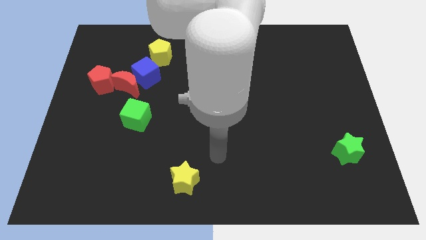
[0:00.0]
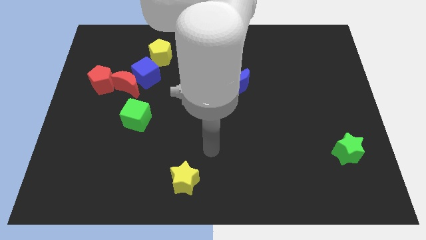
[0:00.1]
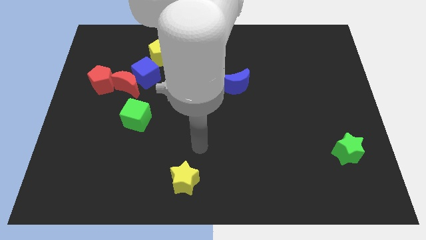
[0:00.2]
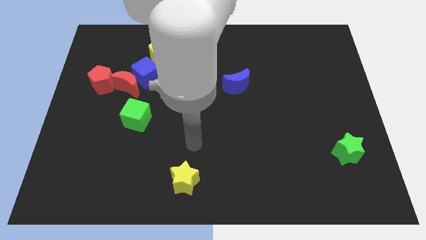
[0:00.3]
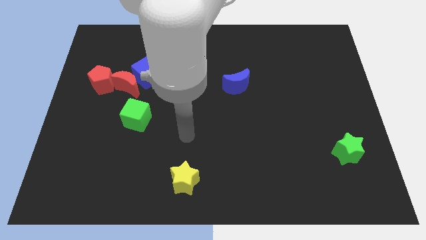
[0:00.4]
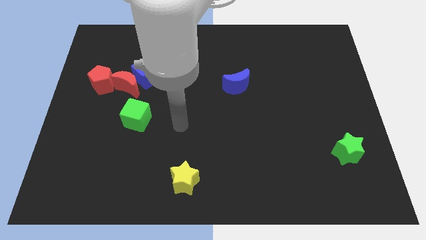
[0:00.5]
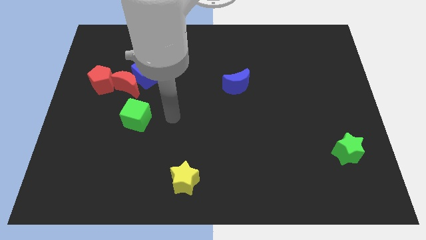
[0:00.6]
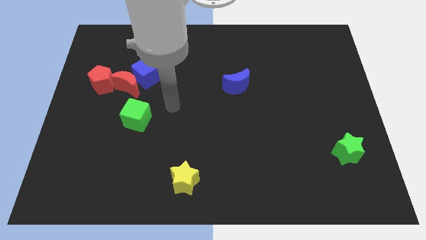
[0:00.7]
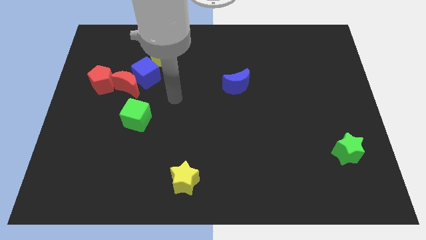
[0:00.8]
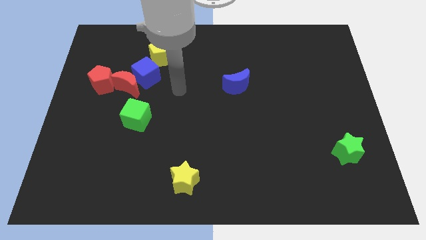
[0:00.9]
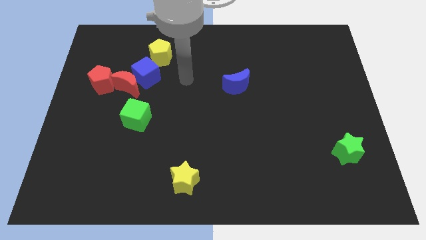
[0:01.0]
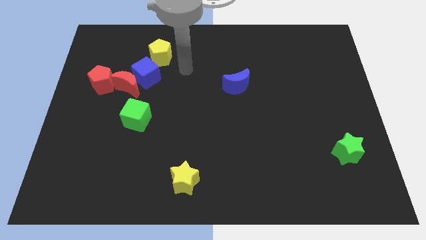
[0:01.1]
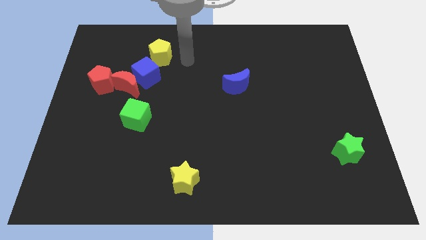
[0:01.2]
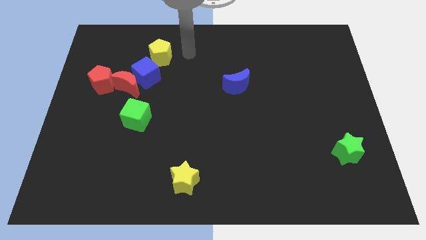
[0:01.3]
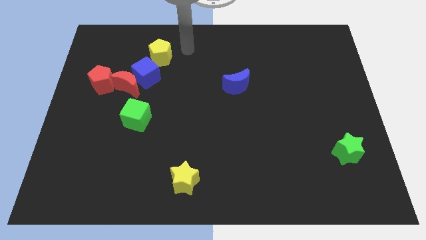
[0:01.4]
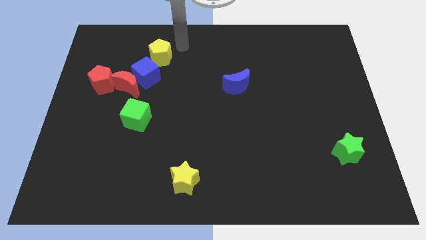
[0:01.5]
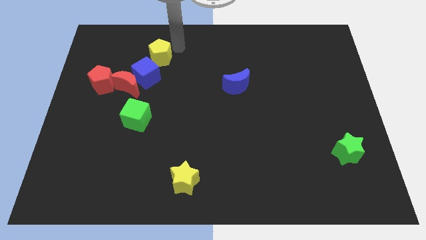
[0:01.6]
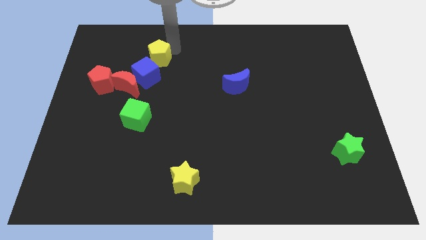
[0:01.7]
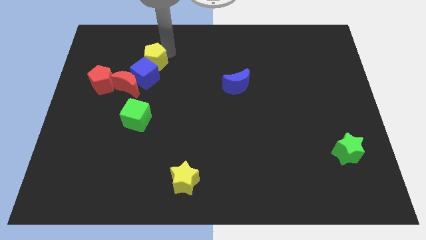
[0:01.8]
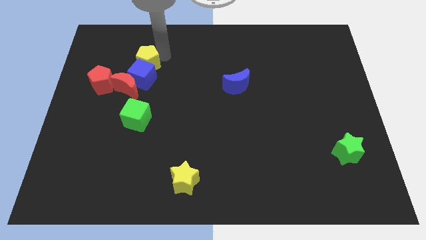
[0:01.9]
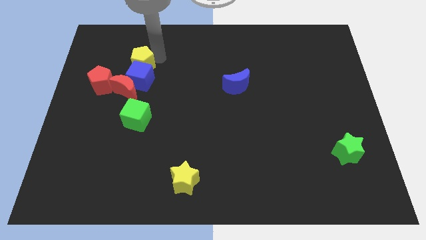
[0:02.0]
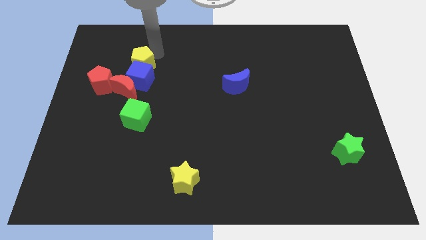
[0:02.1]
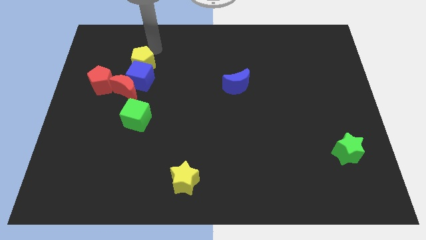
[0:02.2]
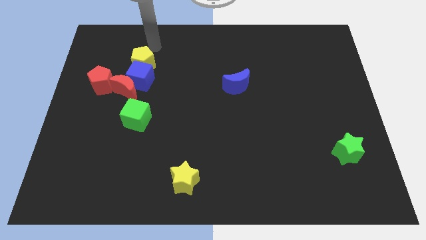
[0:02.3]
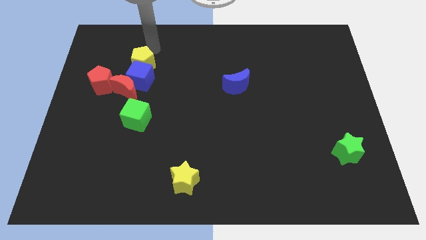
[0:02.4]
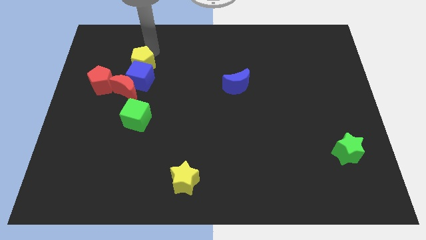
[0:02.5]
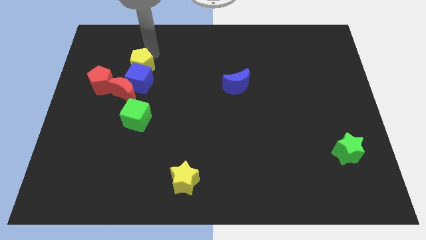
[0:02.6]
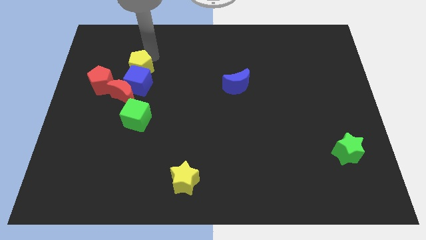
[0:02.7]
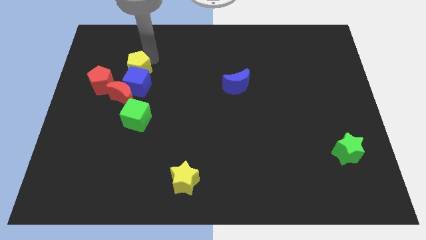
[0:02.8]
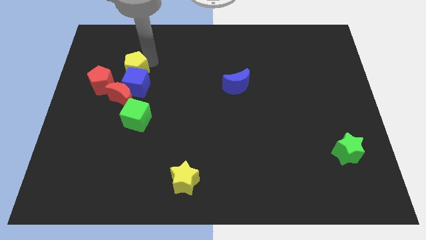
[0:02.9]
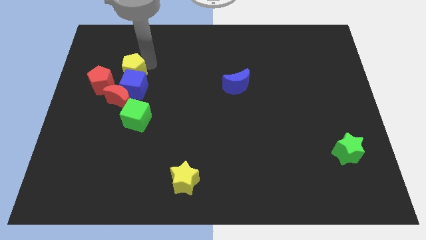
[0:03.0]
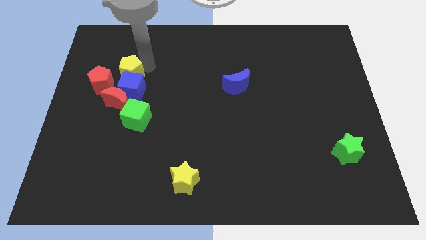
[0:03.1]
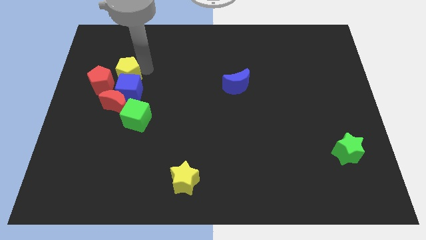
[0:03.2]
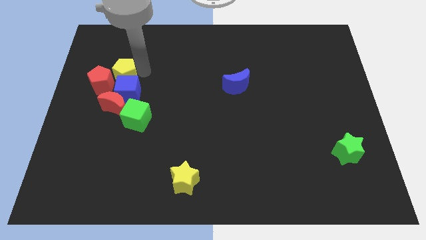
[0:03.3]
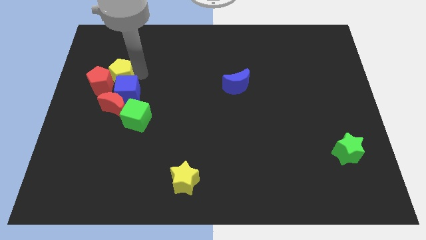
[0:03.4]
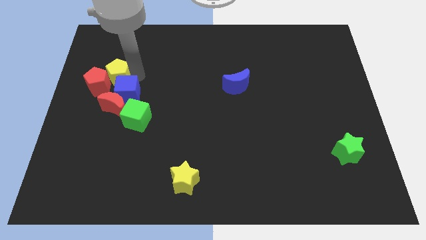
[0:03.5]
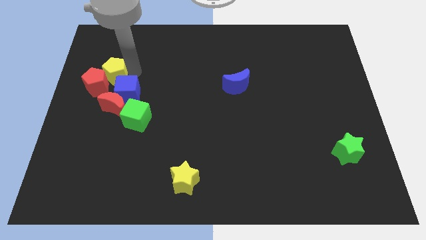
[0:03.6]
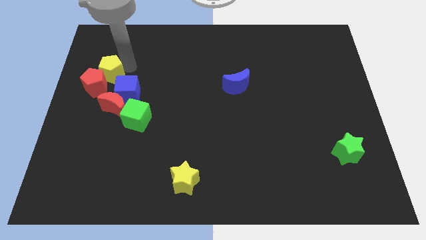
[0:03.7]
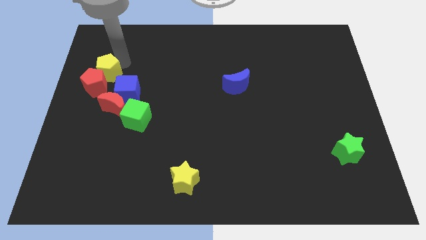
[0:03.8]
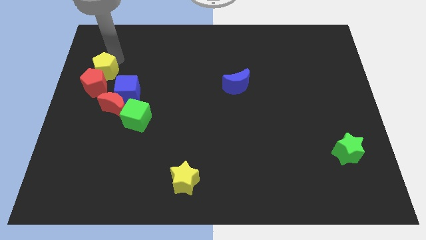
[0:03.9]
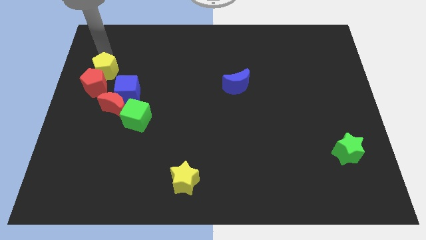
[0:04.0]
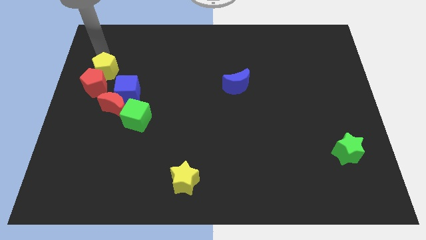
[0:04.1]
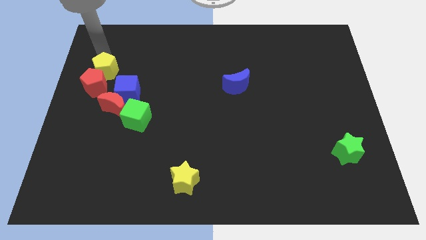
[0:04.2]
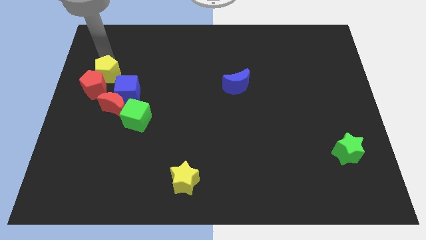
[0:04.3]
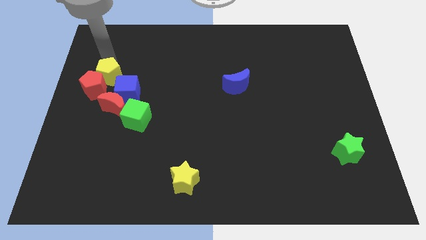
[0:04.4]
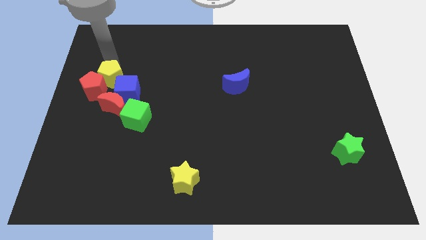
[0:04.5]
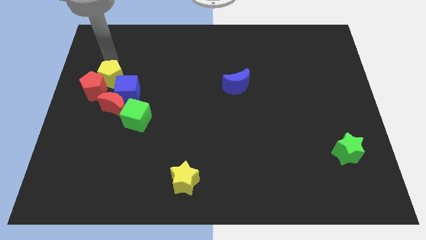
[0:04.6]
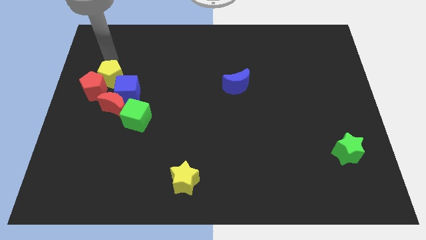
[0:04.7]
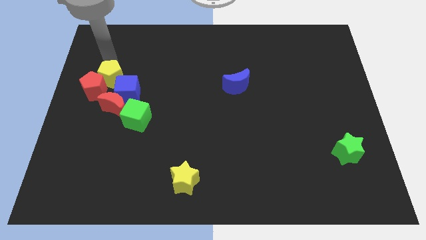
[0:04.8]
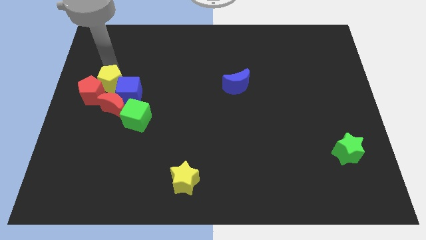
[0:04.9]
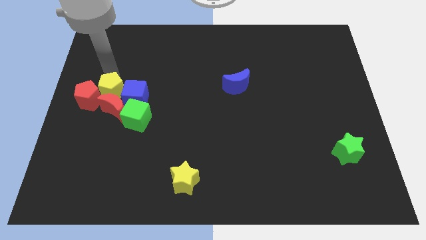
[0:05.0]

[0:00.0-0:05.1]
move the yellow pentagon close to the red moon

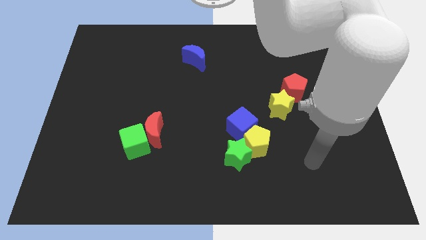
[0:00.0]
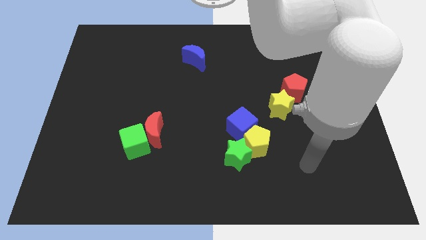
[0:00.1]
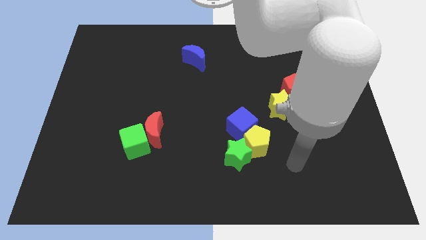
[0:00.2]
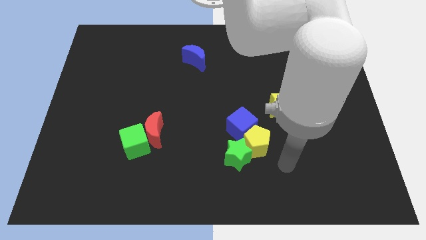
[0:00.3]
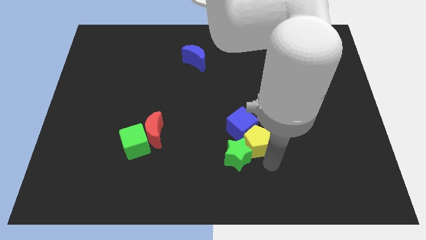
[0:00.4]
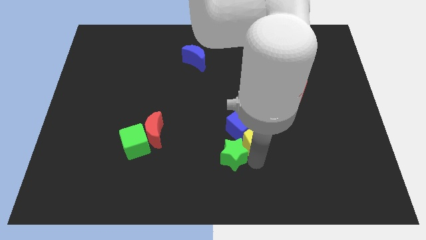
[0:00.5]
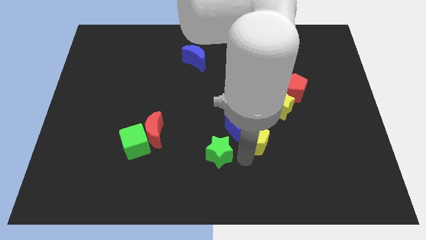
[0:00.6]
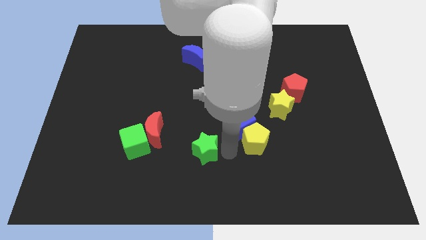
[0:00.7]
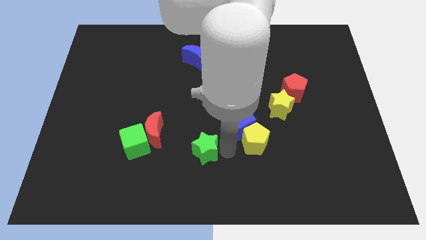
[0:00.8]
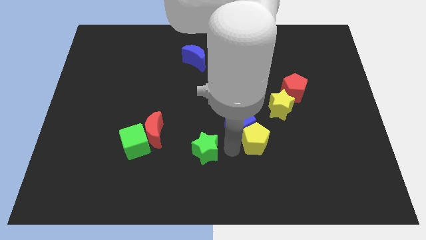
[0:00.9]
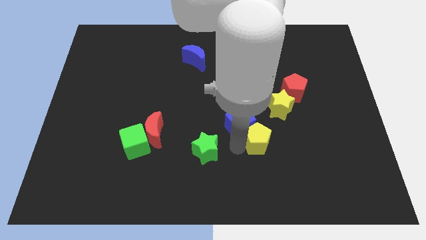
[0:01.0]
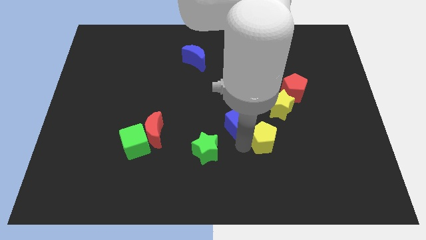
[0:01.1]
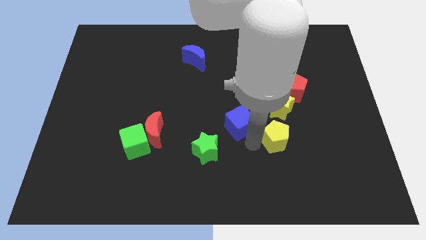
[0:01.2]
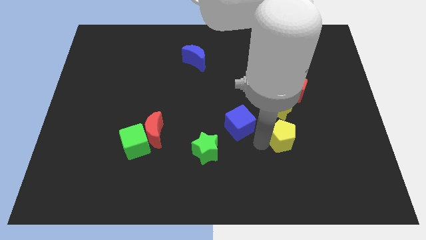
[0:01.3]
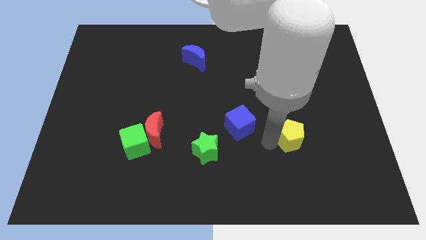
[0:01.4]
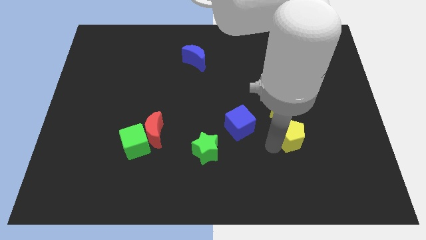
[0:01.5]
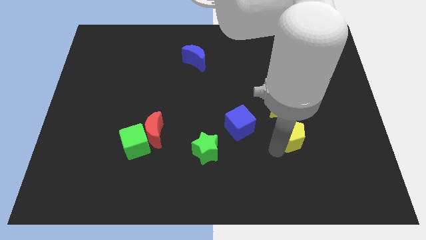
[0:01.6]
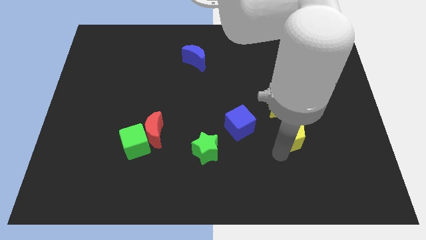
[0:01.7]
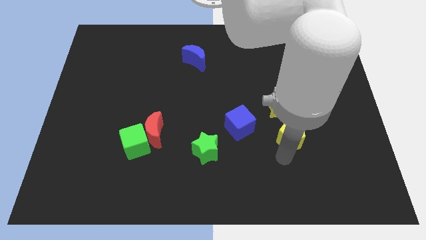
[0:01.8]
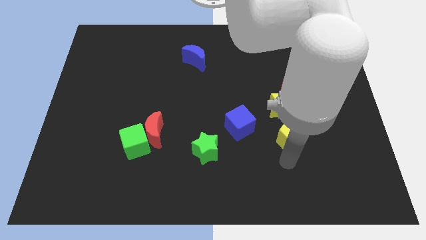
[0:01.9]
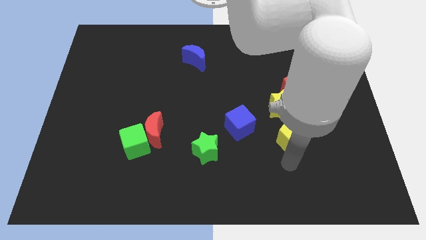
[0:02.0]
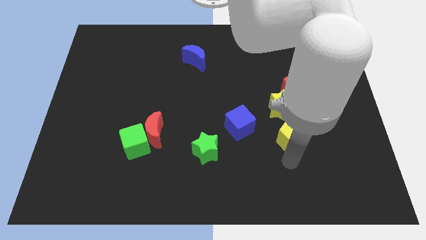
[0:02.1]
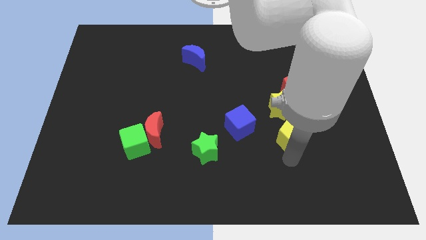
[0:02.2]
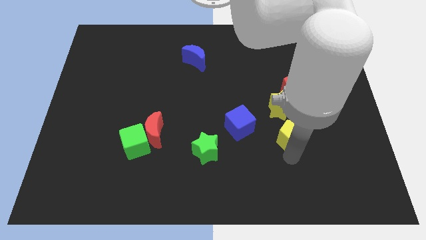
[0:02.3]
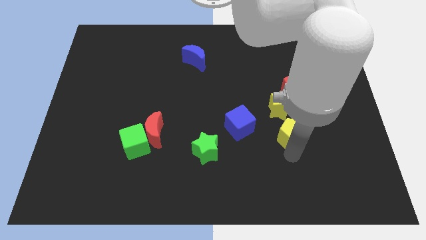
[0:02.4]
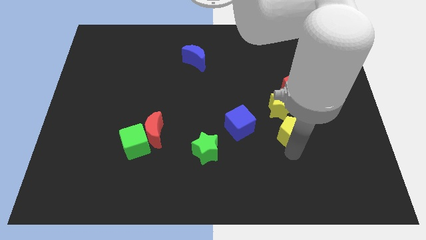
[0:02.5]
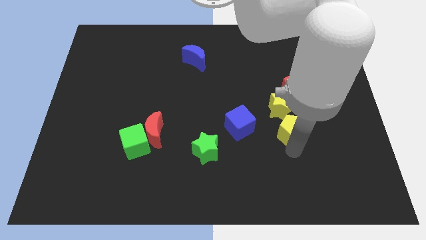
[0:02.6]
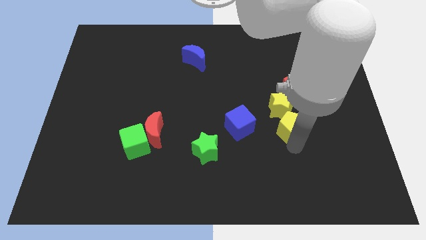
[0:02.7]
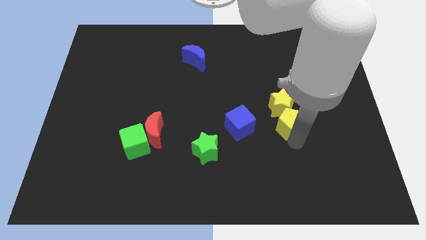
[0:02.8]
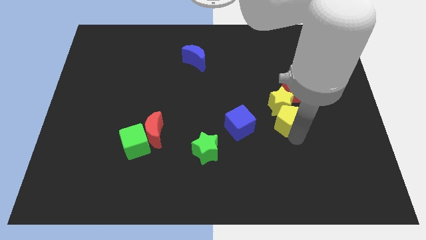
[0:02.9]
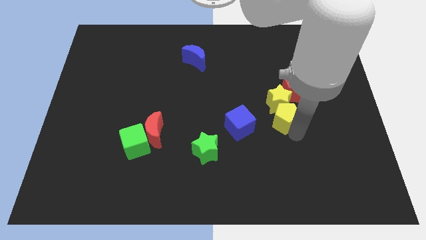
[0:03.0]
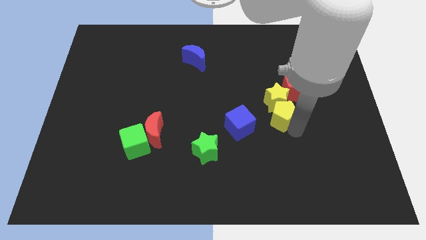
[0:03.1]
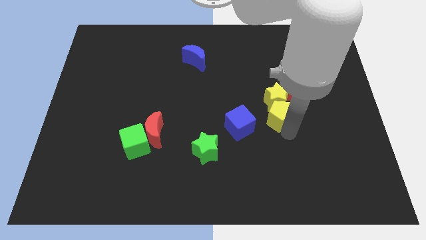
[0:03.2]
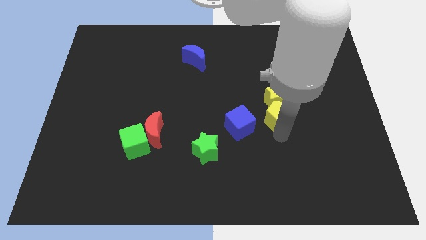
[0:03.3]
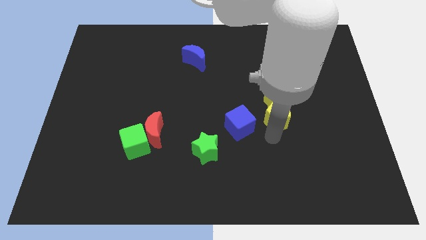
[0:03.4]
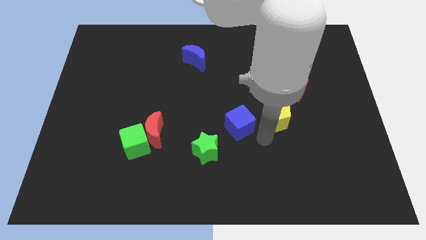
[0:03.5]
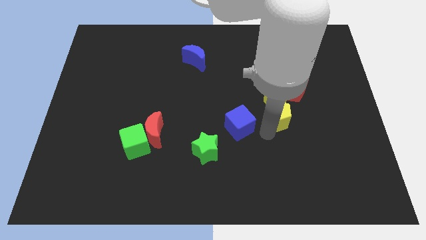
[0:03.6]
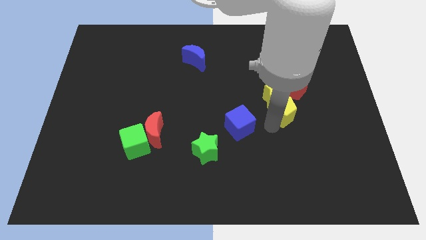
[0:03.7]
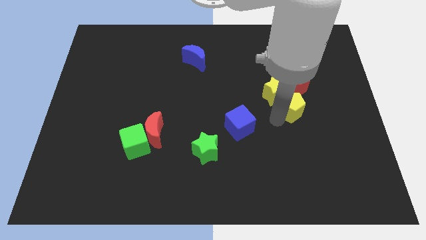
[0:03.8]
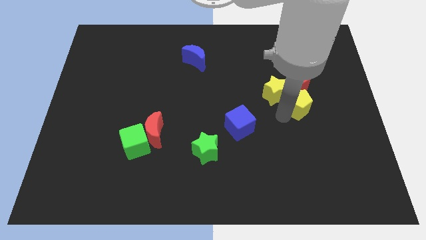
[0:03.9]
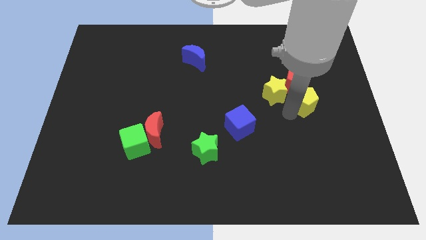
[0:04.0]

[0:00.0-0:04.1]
push the yellow pentagon towards the red pentagon
